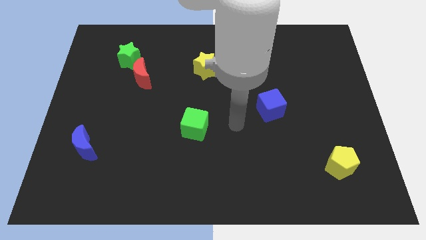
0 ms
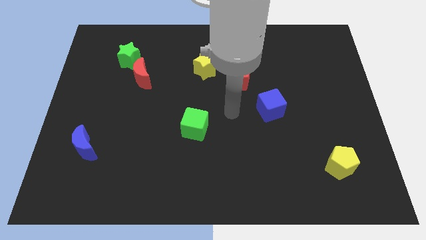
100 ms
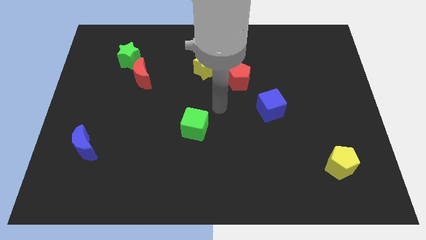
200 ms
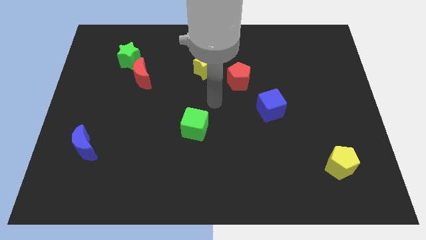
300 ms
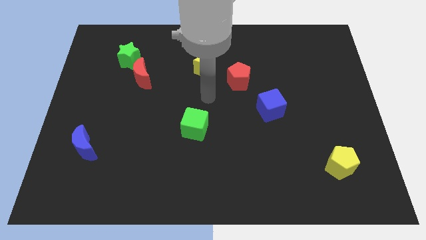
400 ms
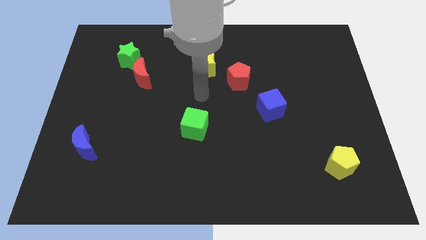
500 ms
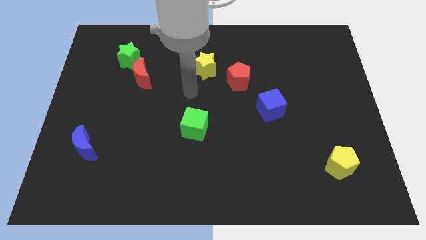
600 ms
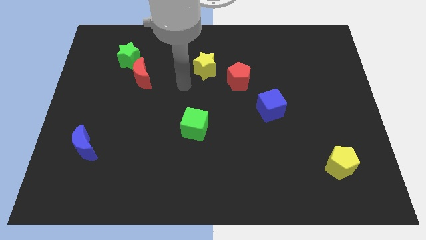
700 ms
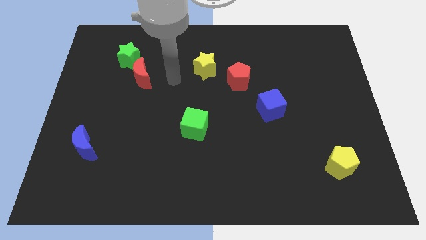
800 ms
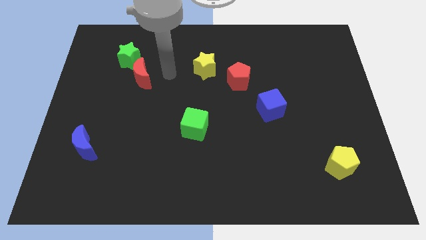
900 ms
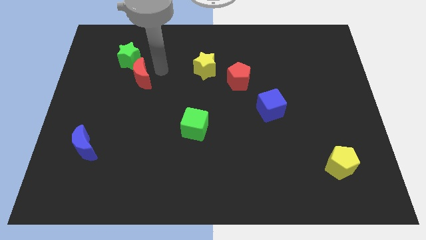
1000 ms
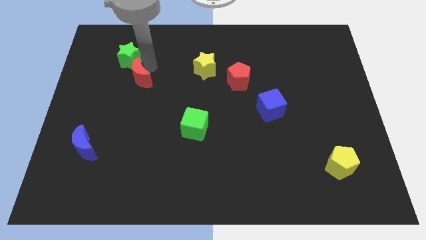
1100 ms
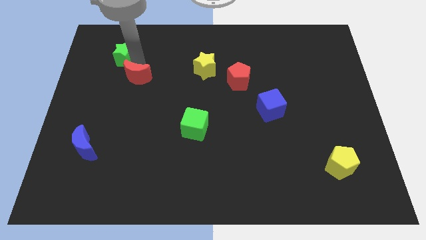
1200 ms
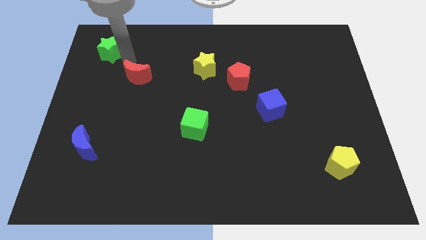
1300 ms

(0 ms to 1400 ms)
pull the red moon apart from the green star

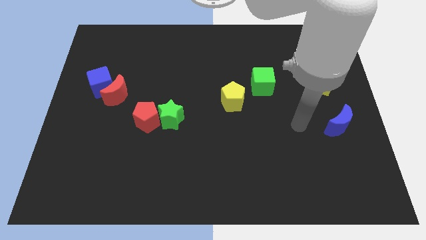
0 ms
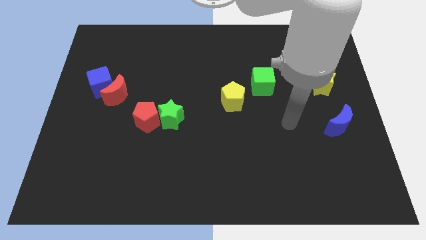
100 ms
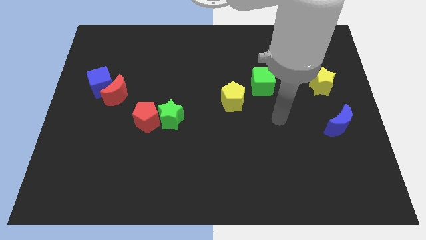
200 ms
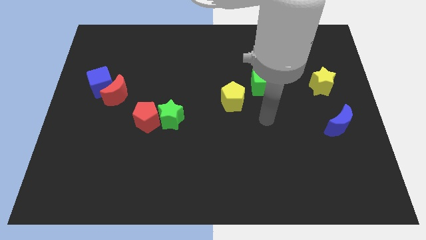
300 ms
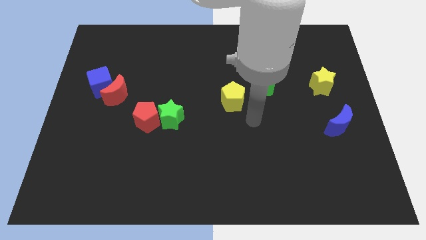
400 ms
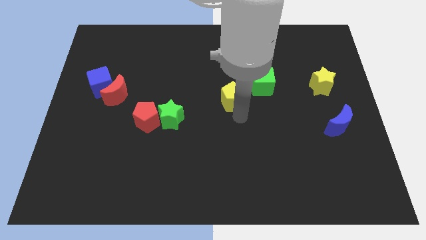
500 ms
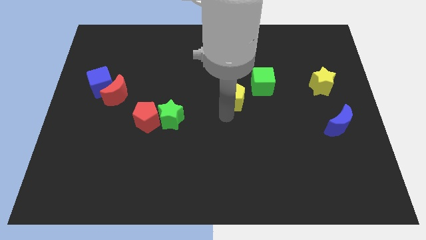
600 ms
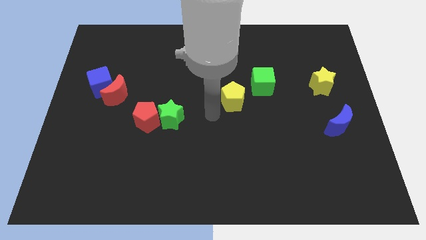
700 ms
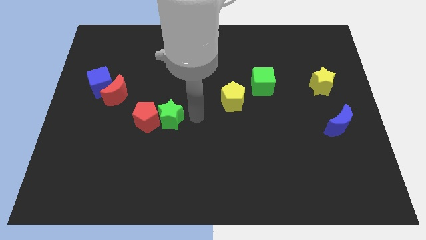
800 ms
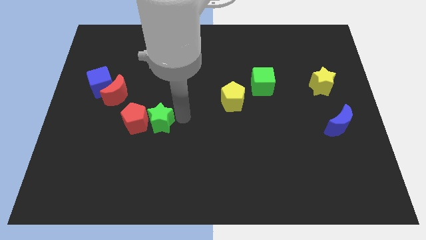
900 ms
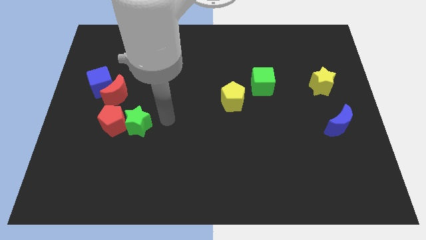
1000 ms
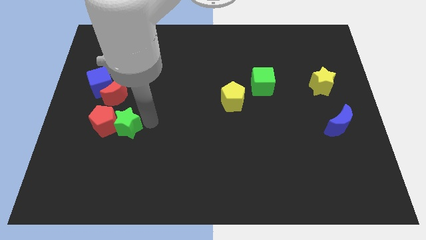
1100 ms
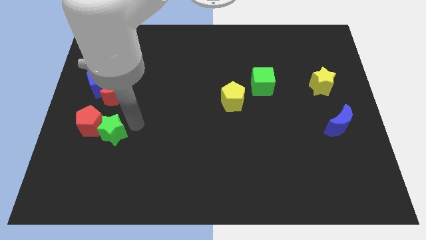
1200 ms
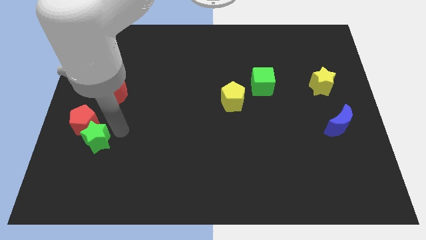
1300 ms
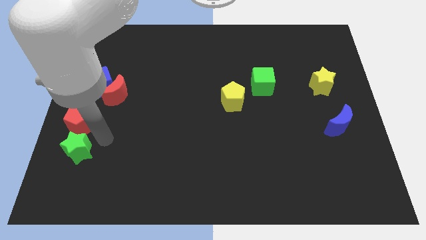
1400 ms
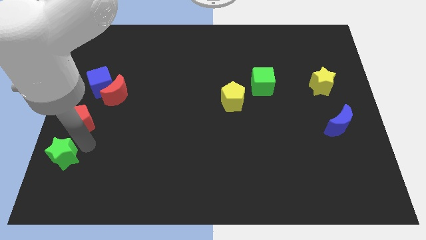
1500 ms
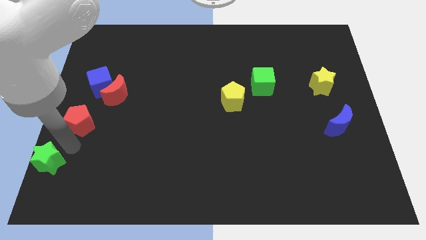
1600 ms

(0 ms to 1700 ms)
pull the red pentagon apart from the green star

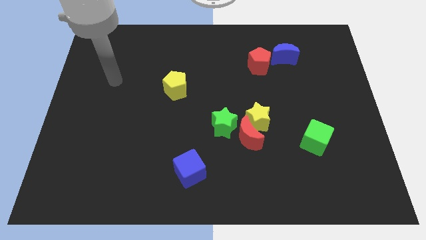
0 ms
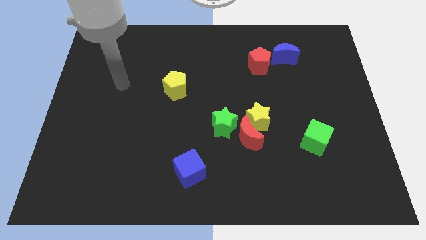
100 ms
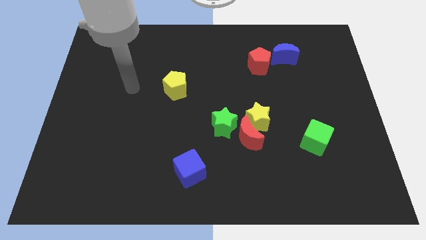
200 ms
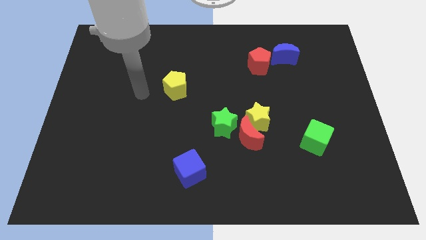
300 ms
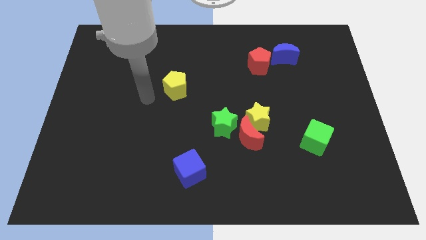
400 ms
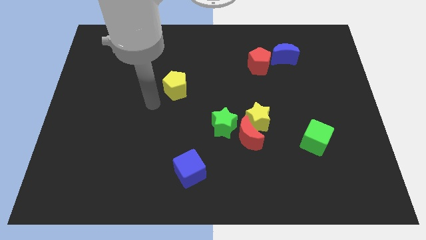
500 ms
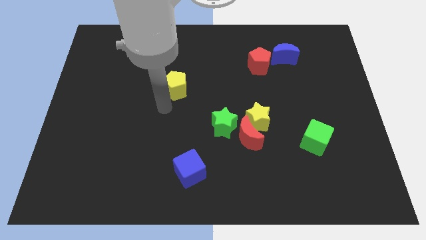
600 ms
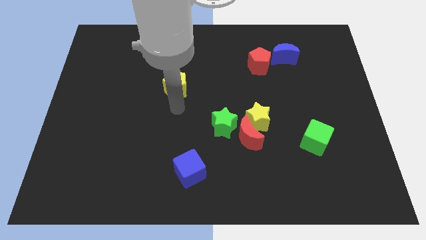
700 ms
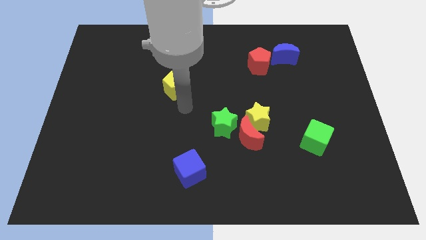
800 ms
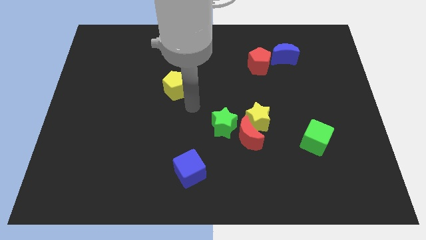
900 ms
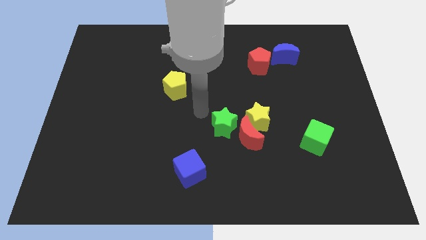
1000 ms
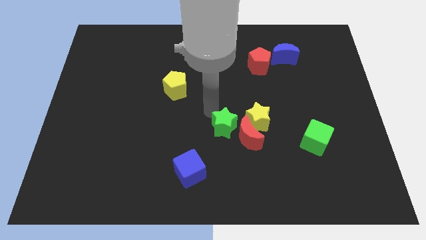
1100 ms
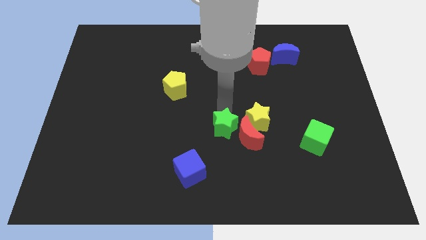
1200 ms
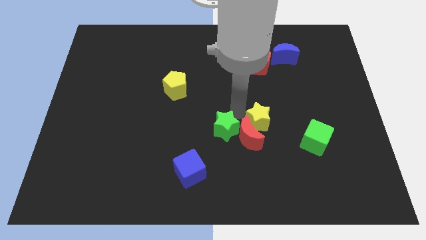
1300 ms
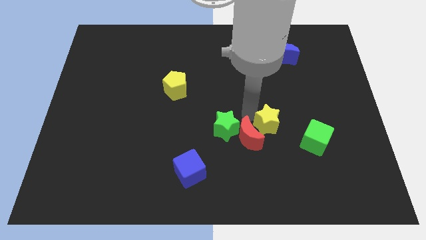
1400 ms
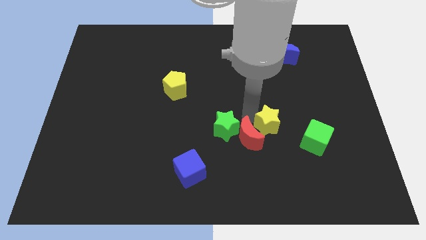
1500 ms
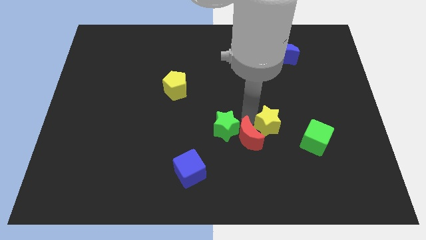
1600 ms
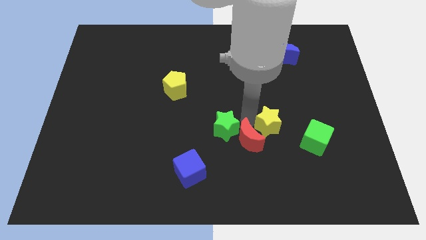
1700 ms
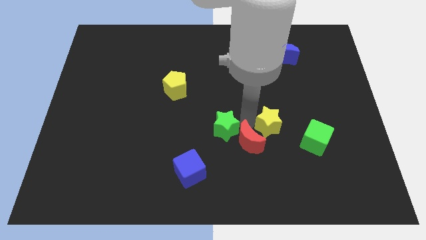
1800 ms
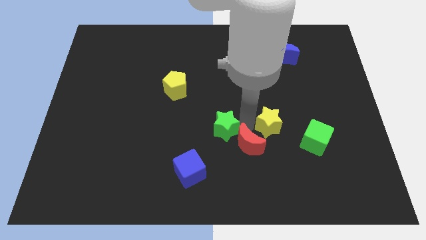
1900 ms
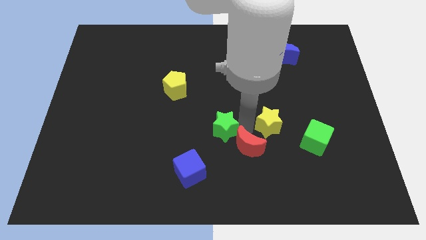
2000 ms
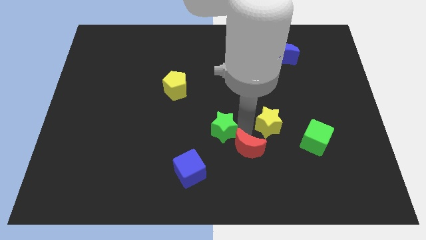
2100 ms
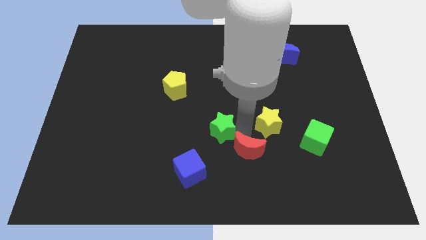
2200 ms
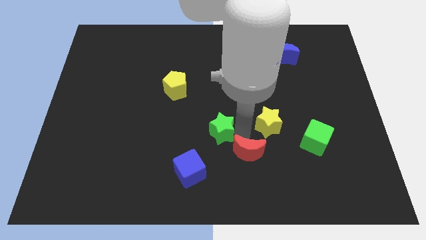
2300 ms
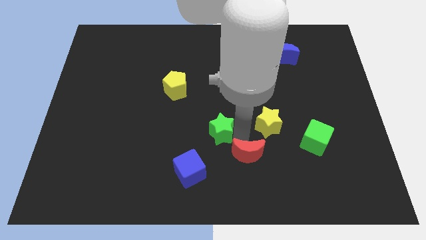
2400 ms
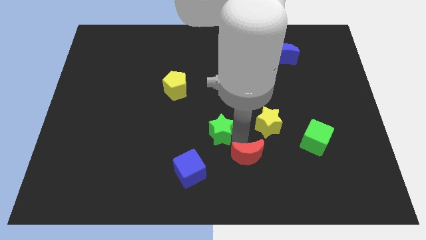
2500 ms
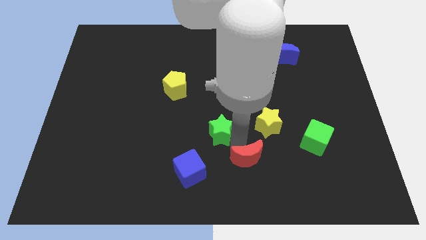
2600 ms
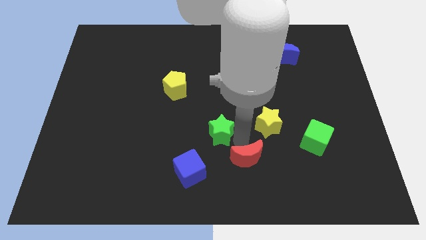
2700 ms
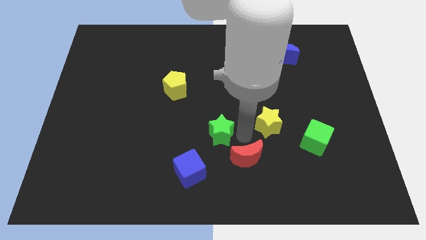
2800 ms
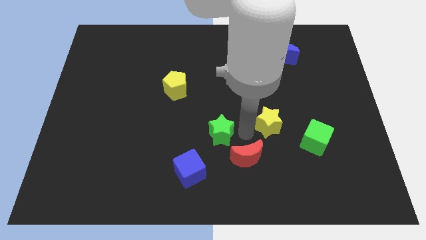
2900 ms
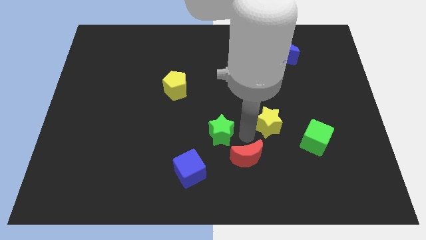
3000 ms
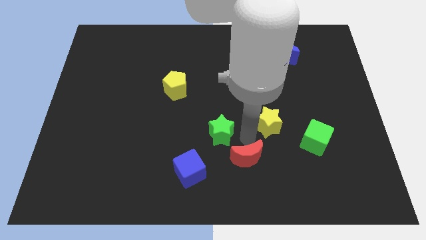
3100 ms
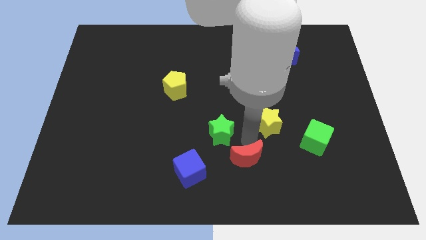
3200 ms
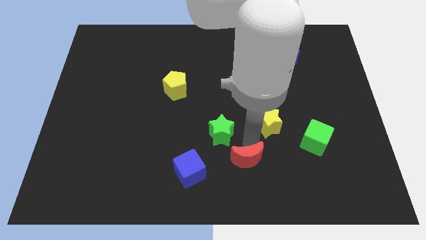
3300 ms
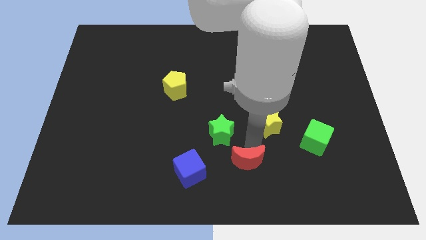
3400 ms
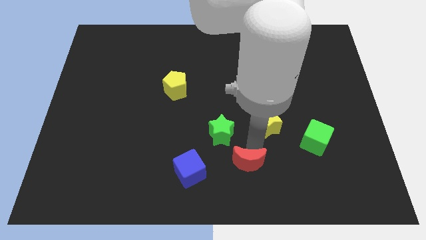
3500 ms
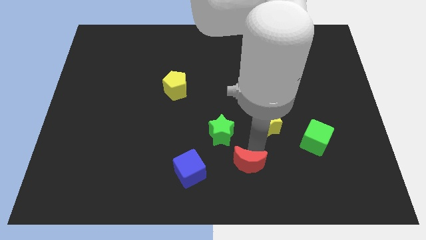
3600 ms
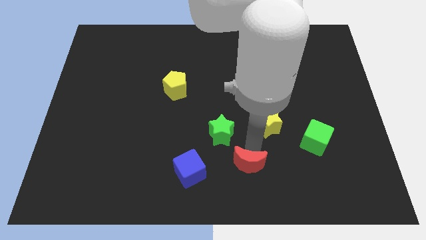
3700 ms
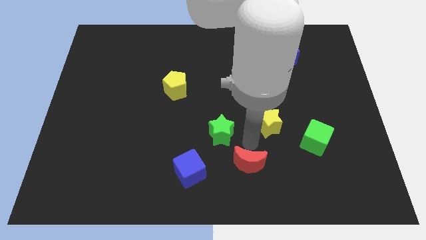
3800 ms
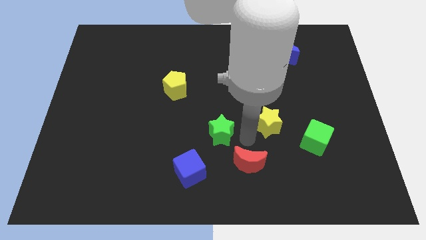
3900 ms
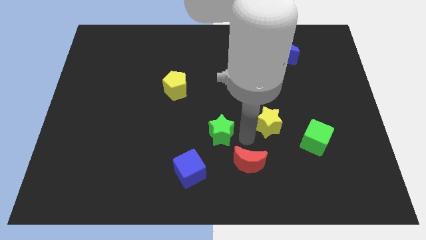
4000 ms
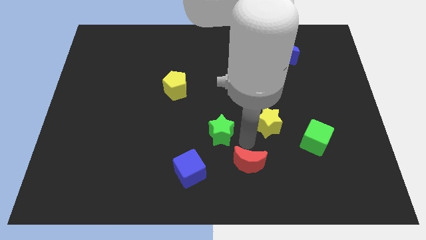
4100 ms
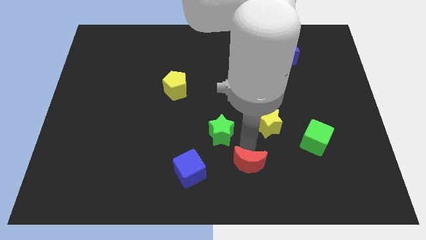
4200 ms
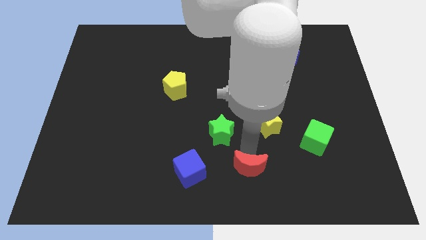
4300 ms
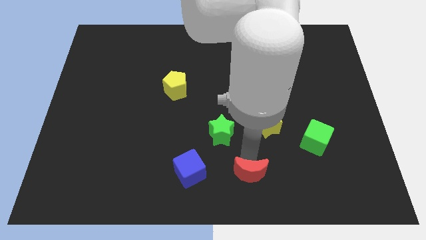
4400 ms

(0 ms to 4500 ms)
separate the red moon from the yellow star and green star

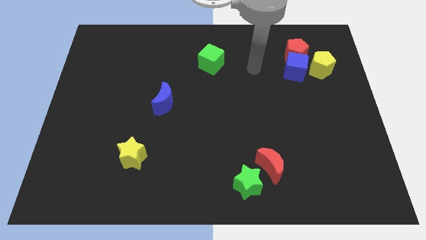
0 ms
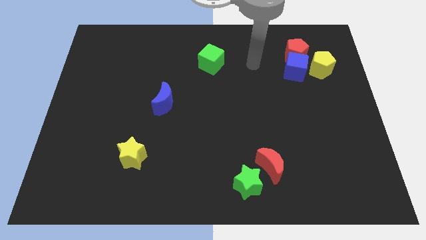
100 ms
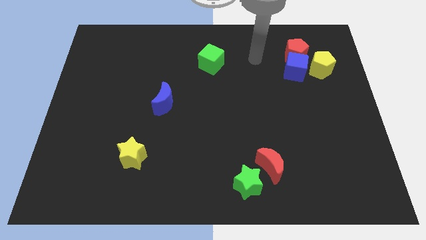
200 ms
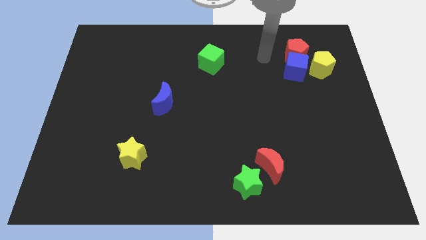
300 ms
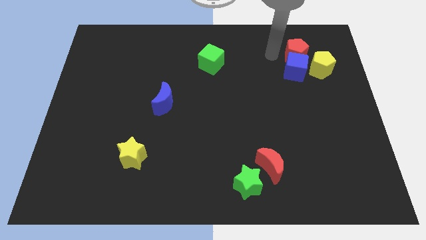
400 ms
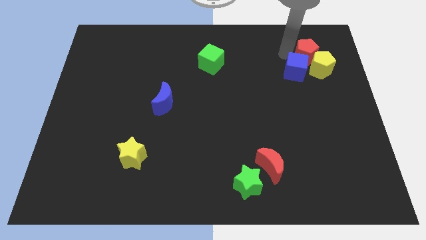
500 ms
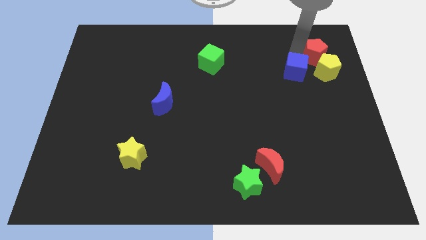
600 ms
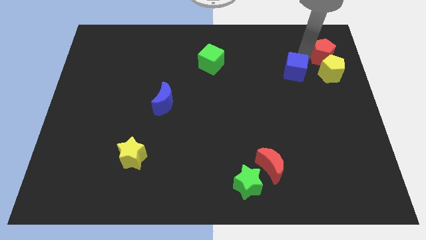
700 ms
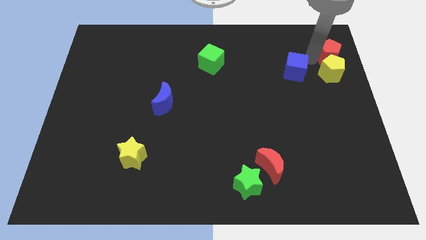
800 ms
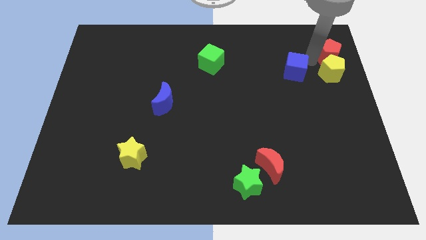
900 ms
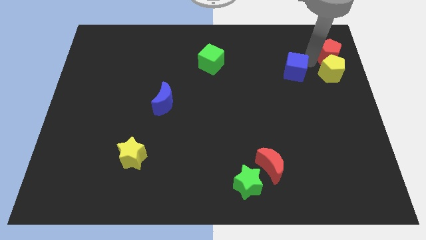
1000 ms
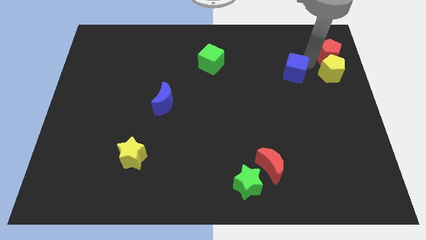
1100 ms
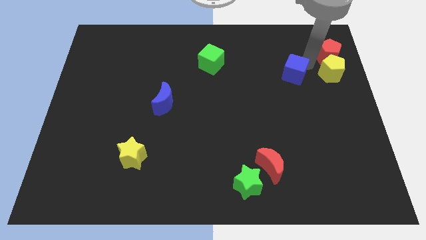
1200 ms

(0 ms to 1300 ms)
pull the blue cube apart from the red pentagon and yellow pentagon

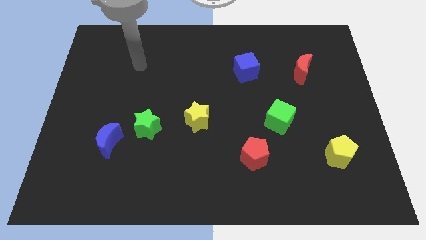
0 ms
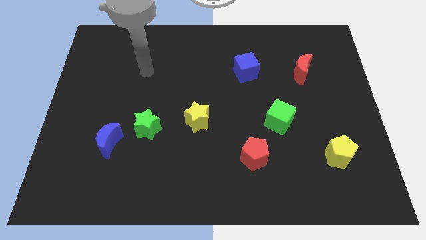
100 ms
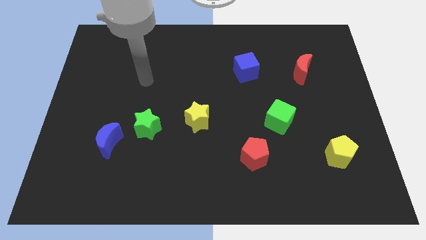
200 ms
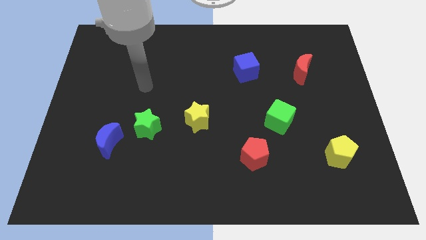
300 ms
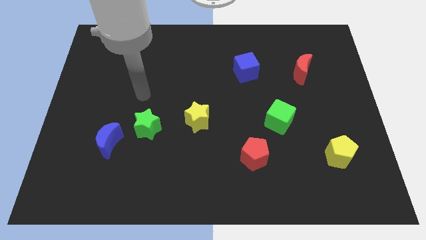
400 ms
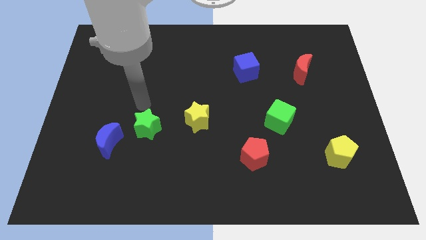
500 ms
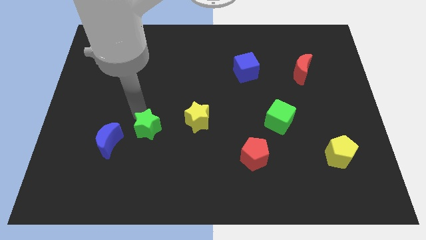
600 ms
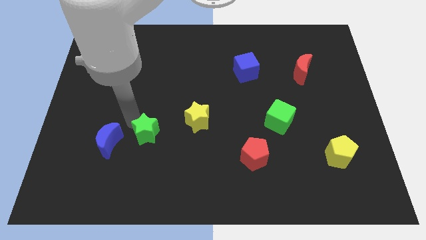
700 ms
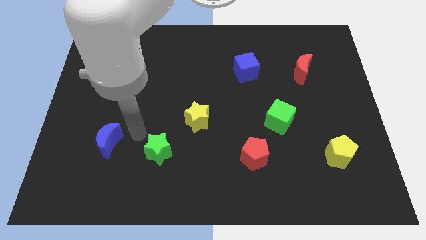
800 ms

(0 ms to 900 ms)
pull the blue moon apart from the green star
